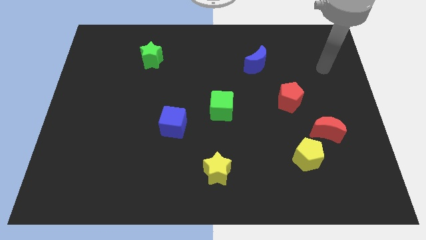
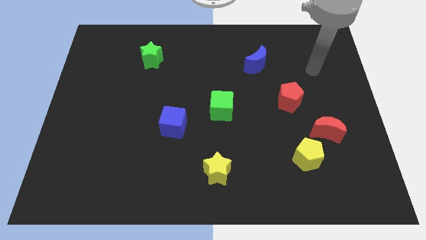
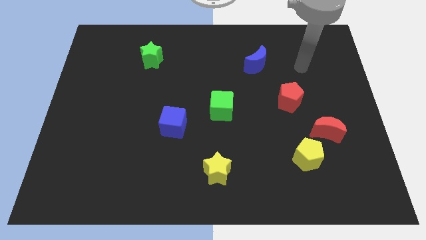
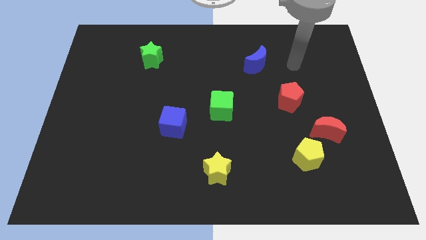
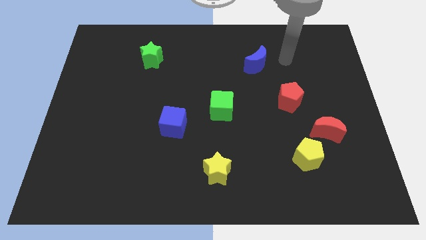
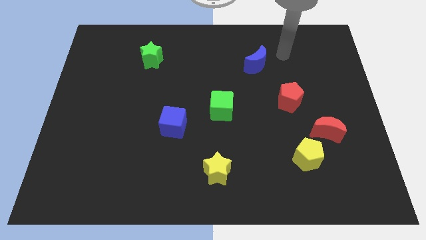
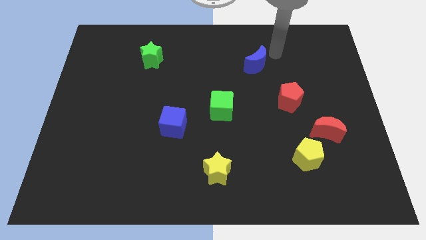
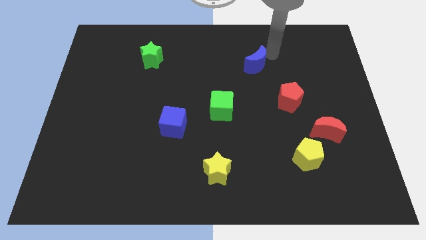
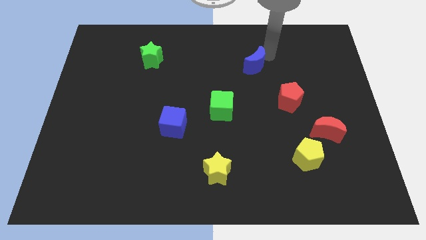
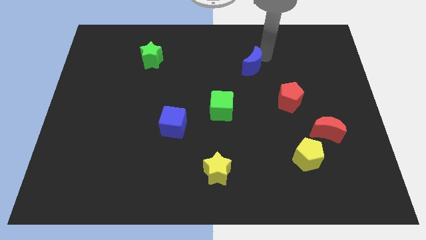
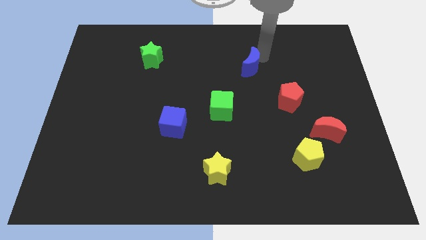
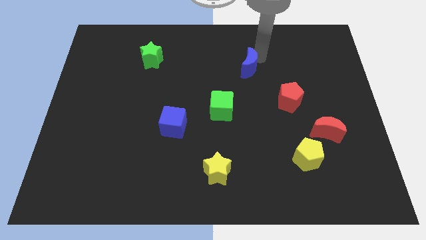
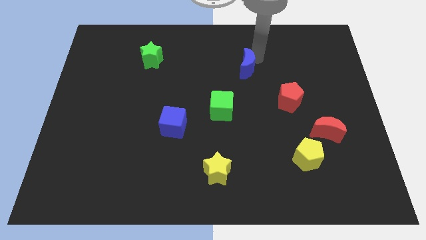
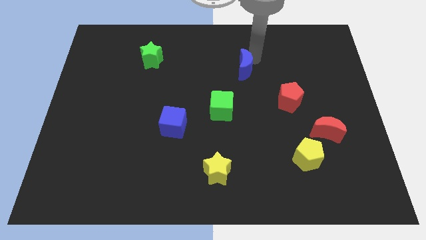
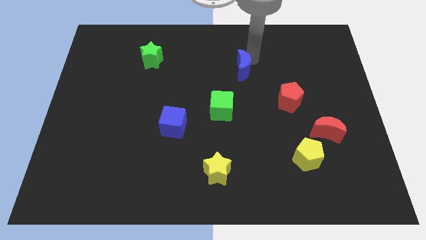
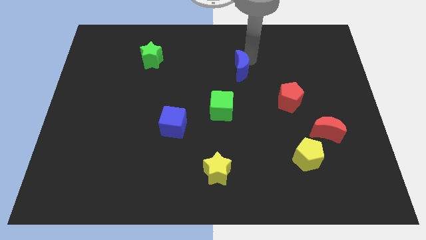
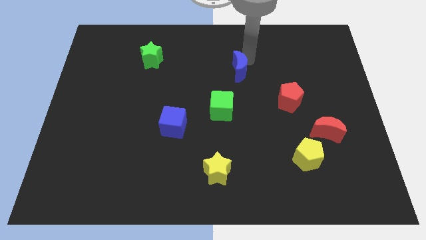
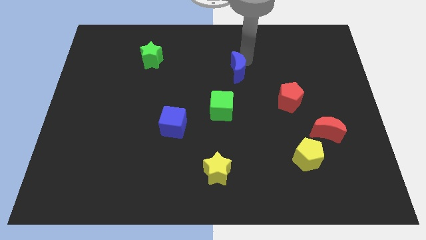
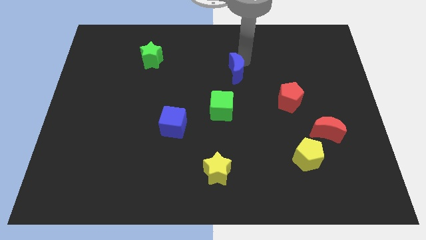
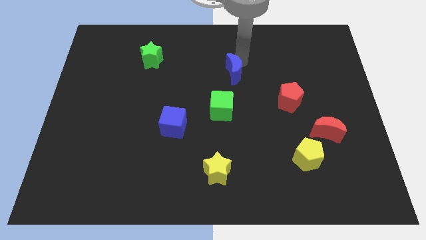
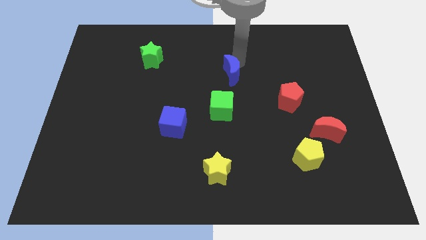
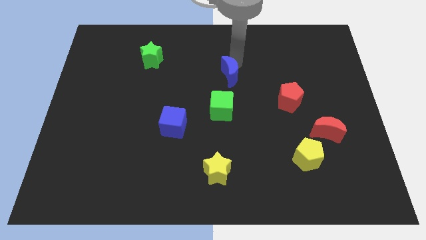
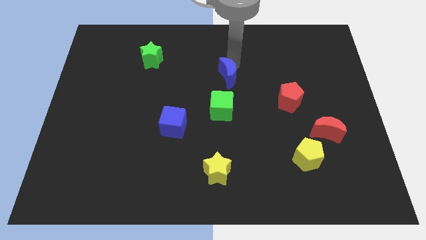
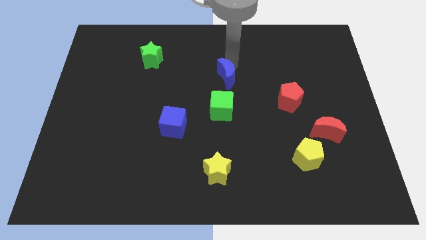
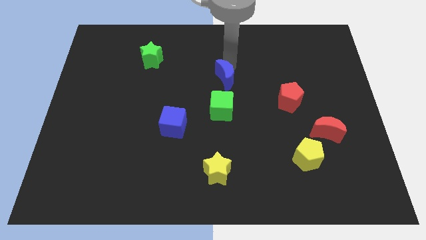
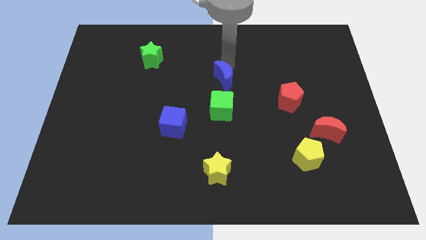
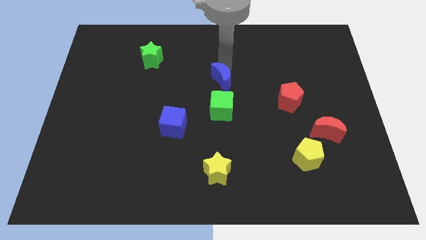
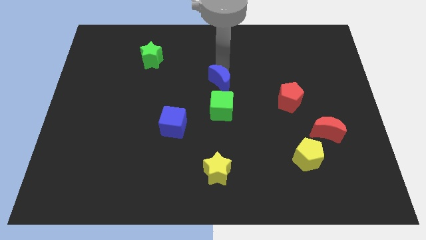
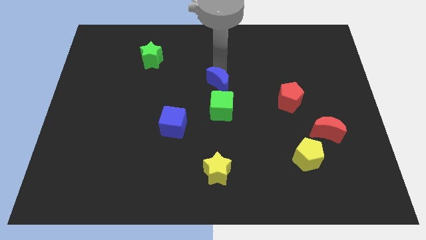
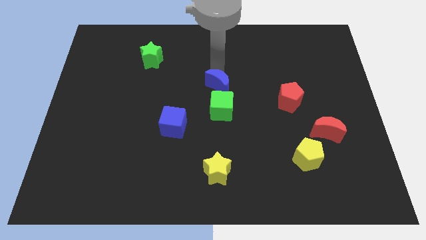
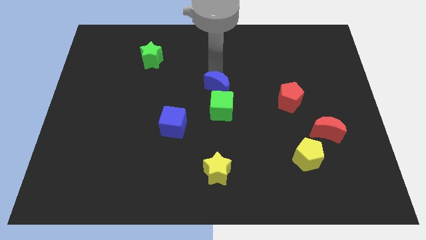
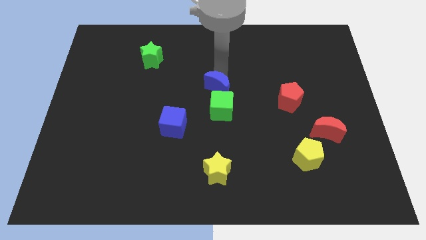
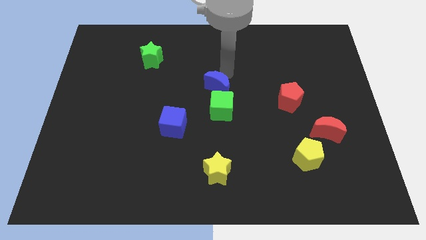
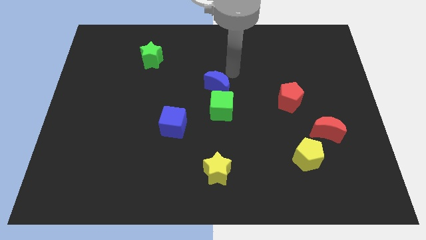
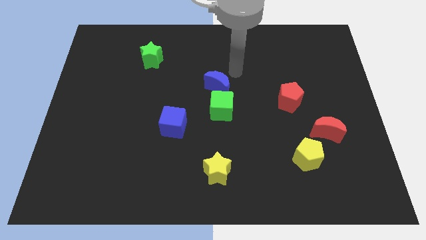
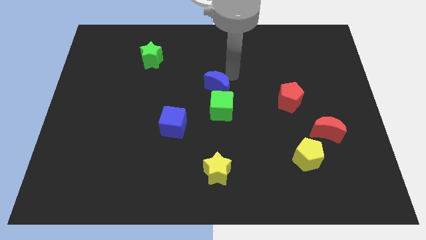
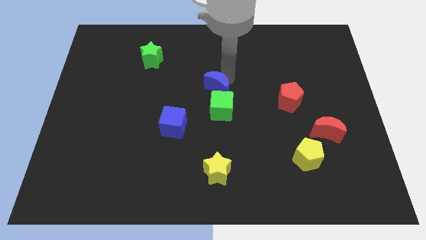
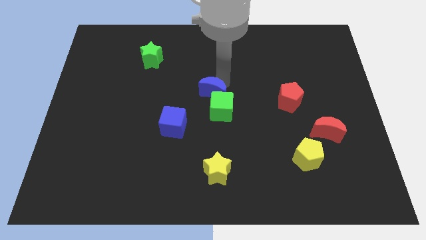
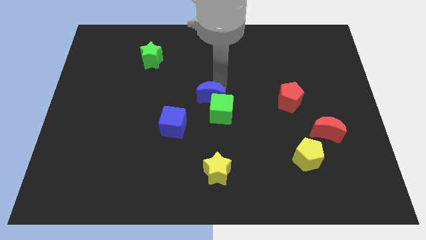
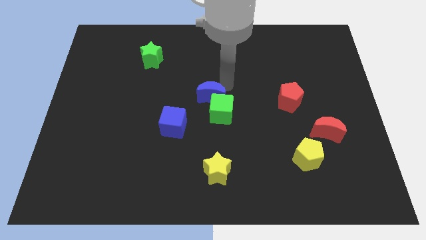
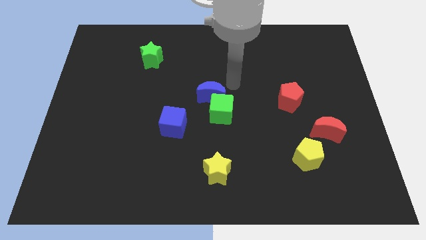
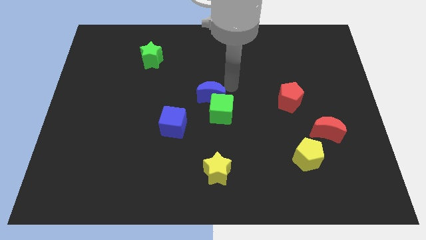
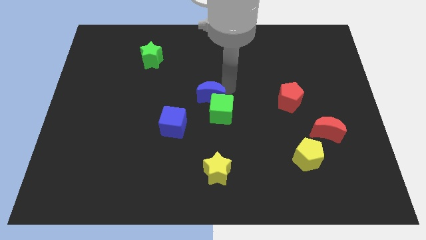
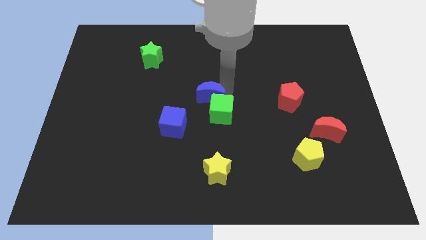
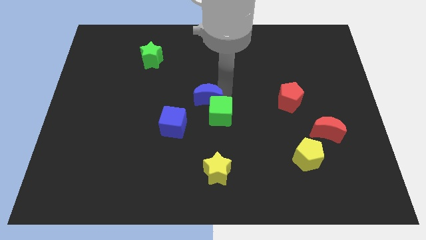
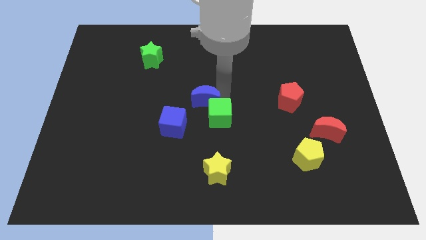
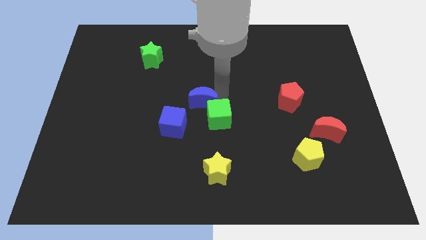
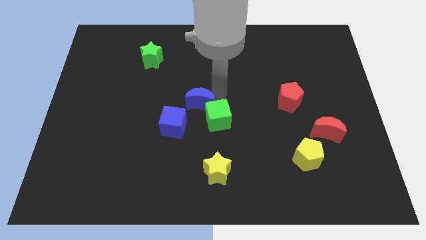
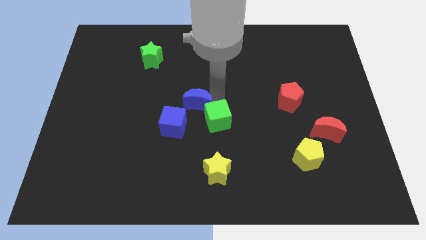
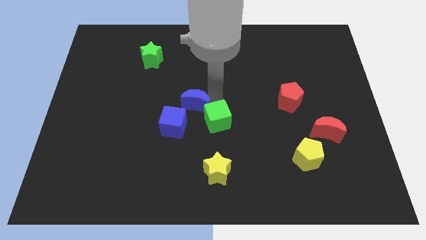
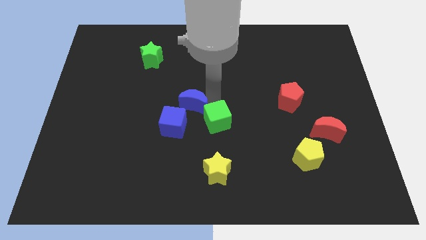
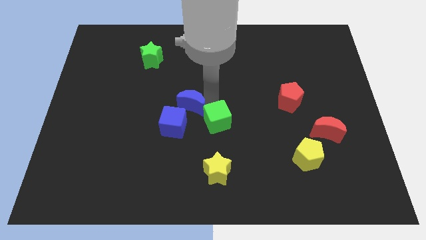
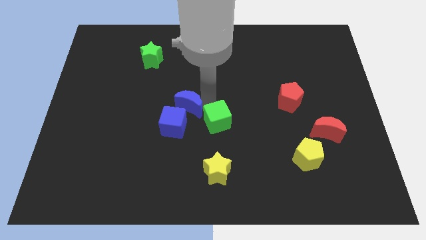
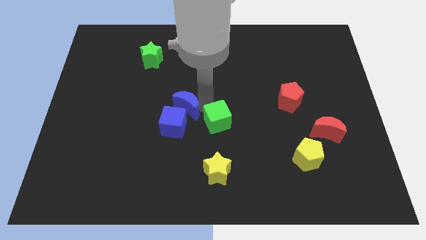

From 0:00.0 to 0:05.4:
push the blue moon close to the blue cube

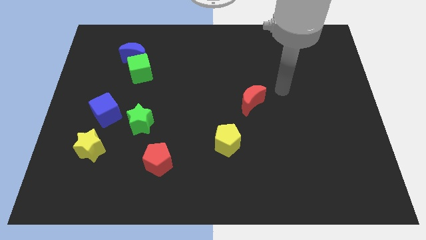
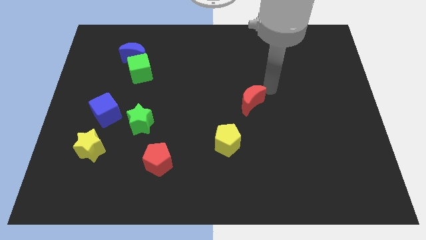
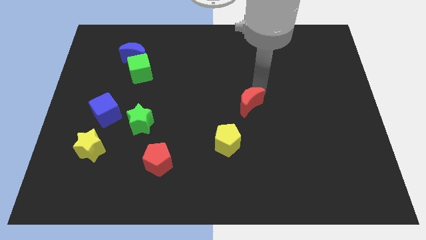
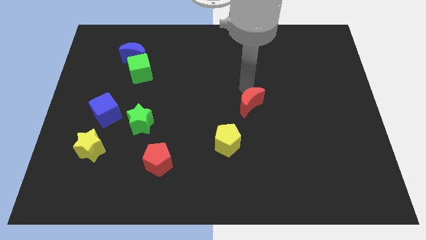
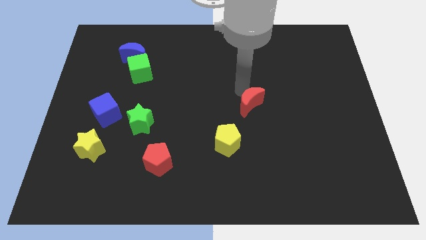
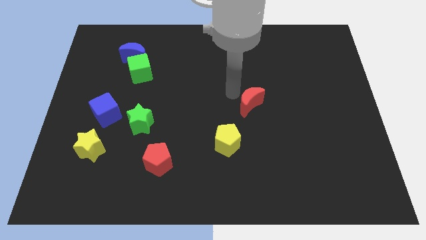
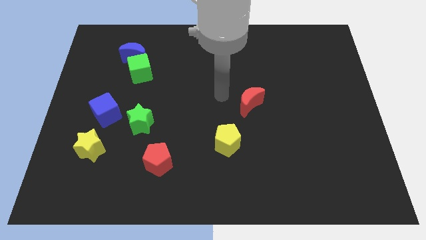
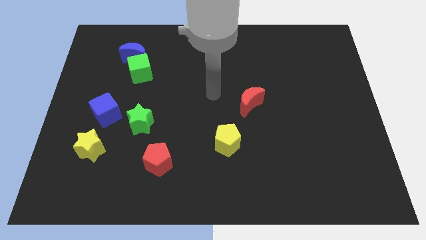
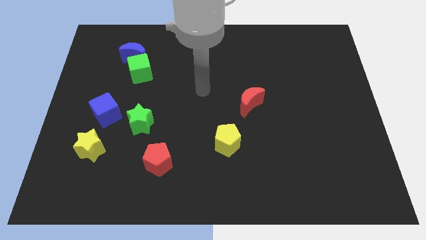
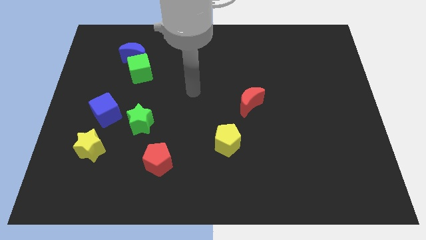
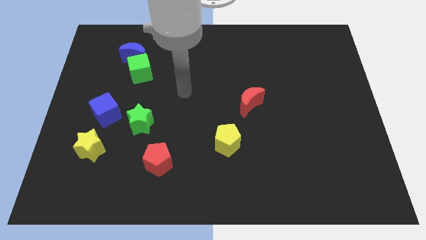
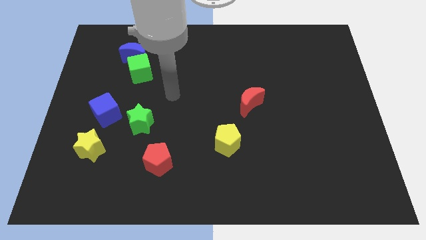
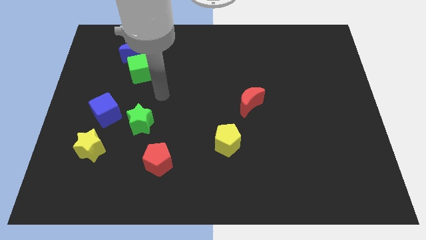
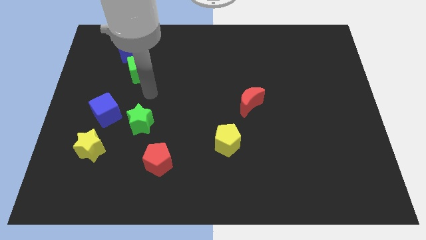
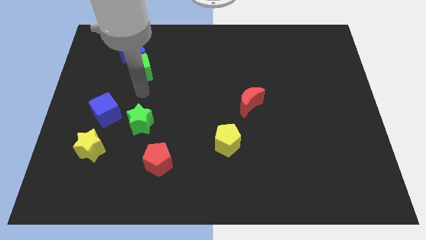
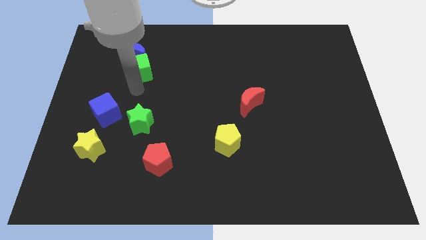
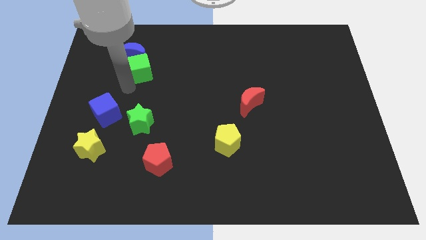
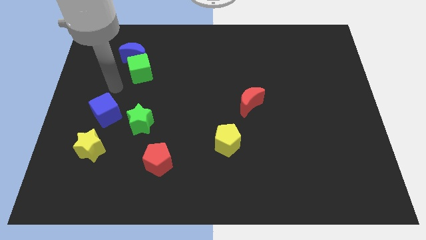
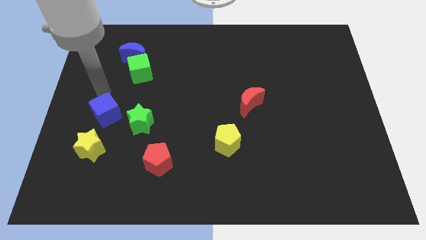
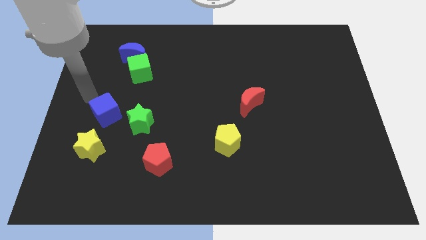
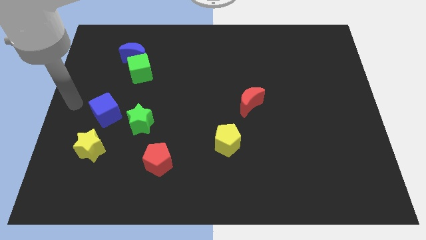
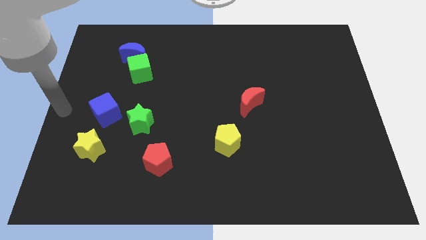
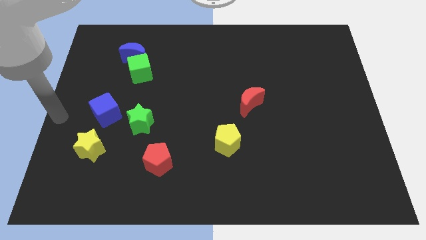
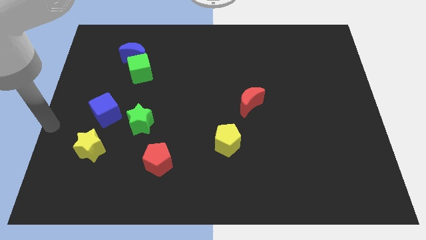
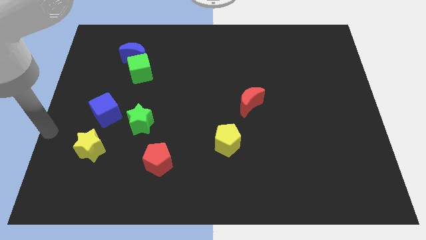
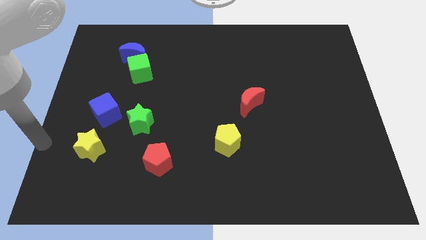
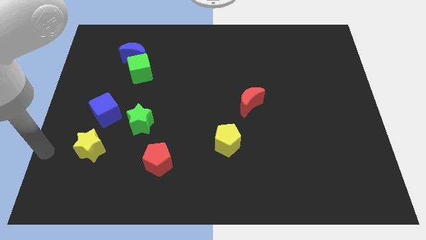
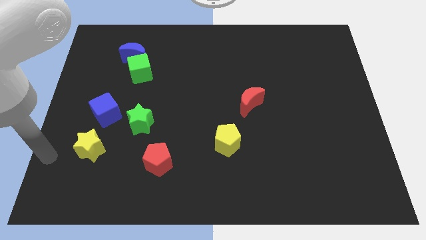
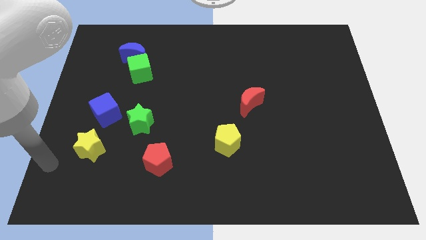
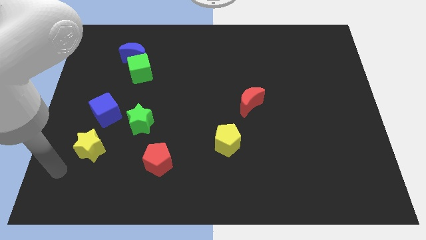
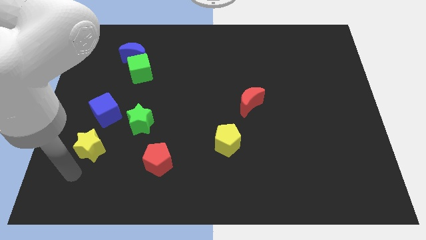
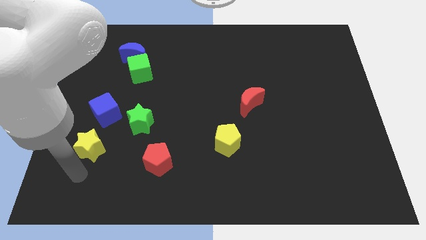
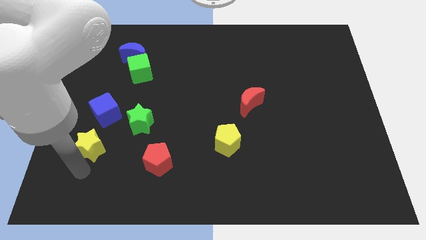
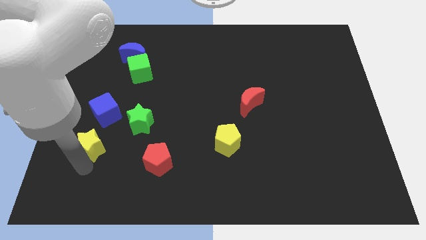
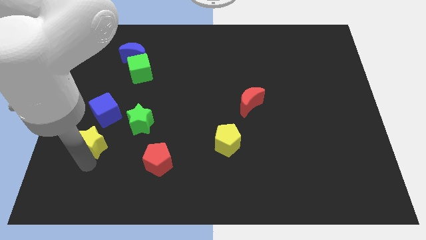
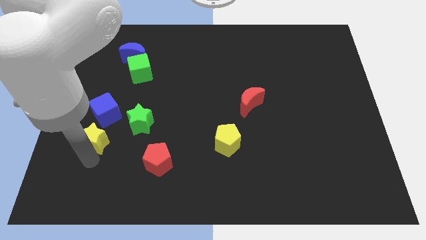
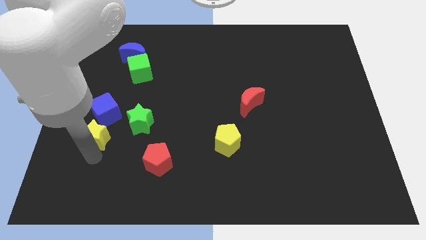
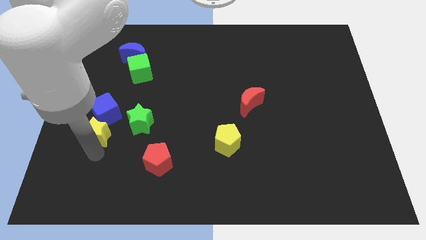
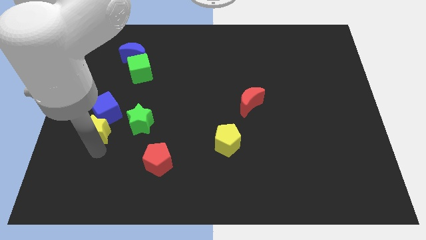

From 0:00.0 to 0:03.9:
move the yellow star next to the blue cube
